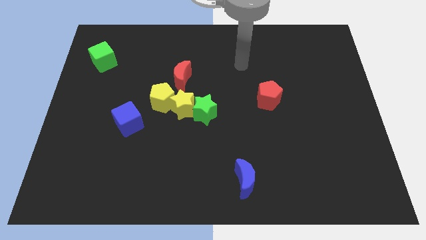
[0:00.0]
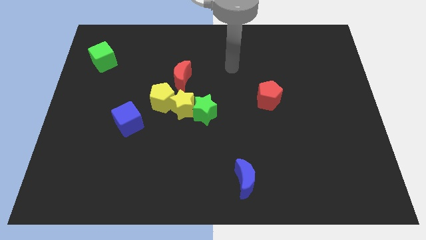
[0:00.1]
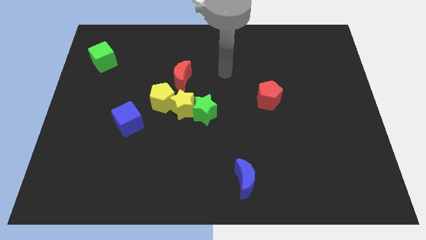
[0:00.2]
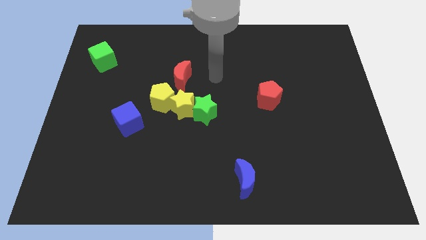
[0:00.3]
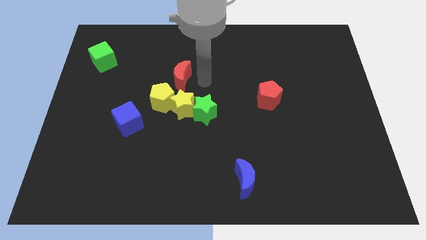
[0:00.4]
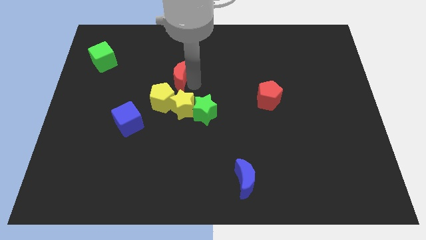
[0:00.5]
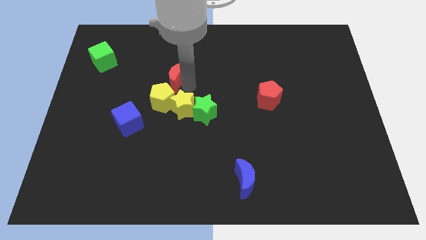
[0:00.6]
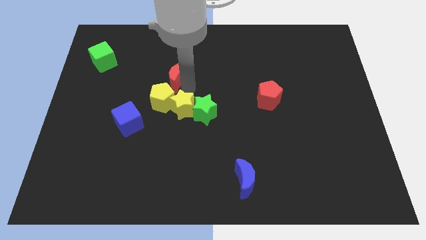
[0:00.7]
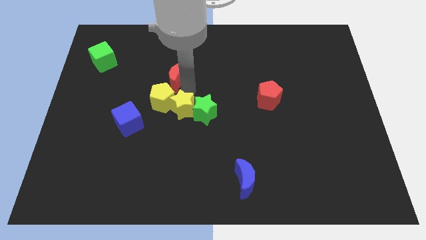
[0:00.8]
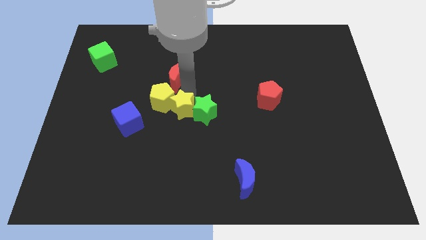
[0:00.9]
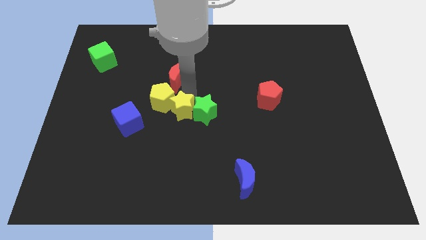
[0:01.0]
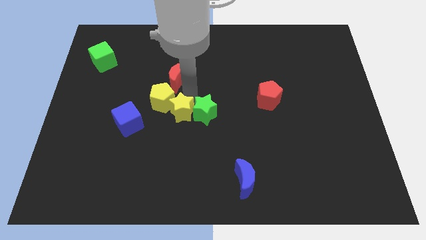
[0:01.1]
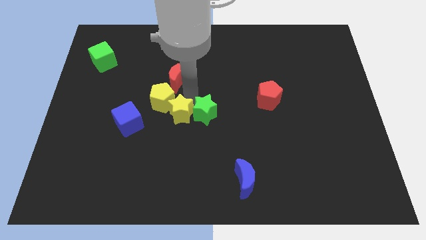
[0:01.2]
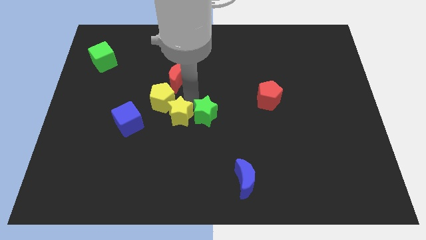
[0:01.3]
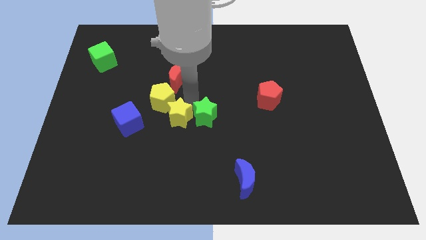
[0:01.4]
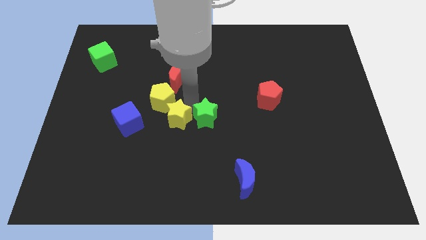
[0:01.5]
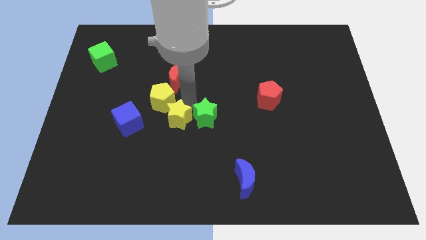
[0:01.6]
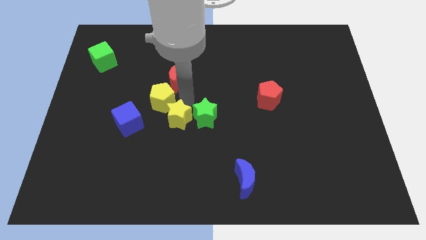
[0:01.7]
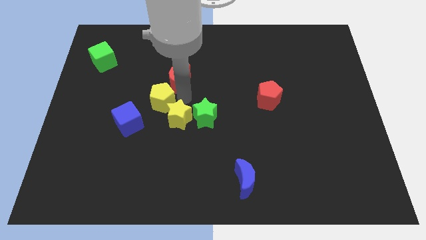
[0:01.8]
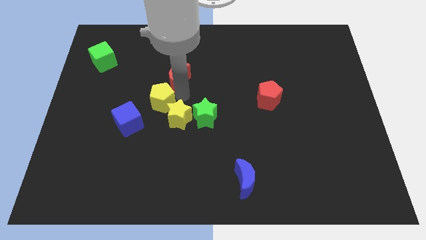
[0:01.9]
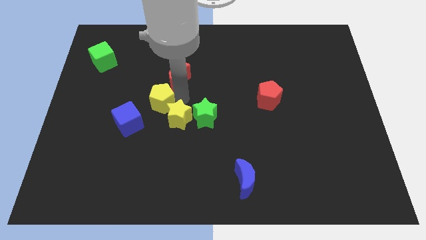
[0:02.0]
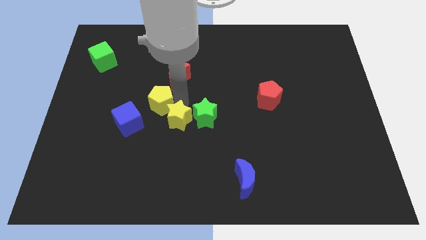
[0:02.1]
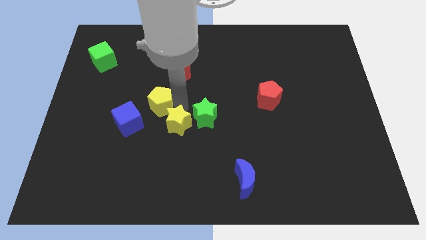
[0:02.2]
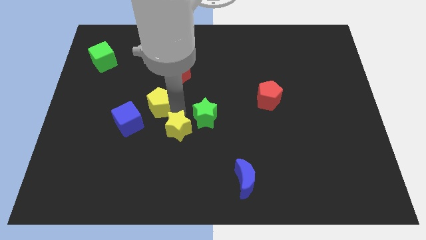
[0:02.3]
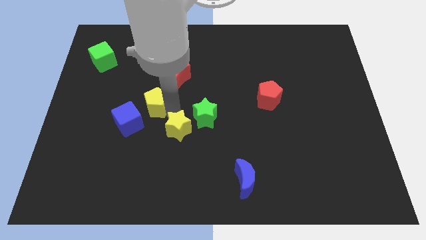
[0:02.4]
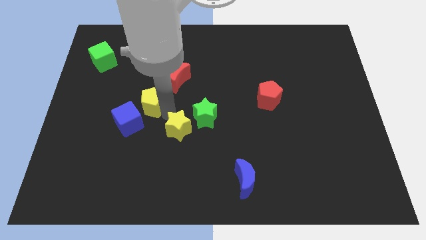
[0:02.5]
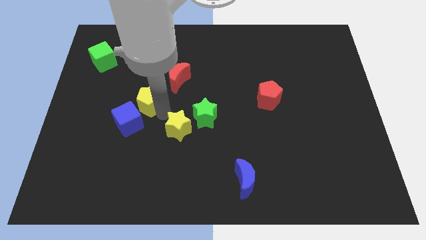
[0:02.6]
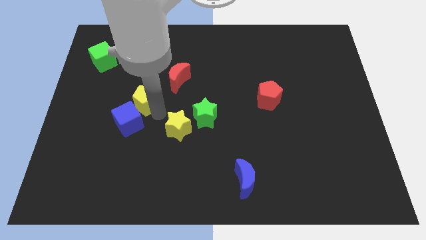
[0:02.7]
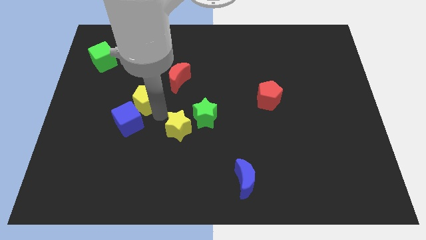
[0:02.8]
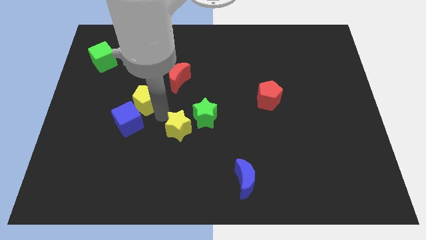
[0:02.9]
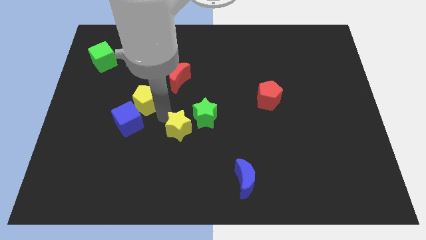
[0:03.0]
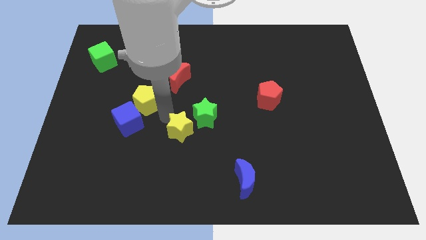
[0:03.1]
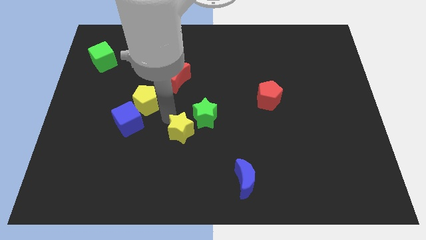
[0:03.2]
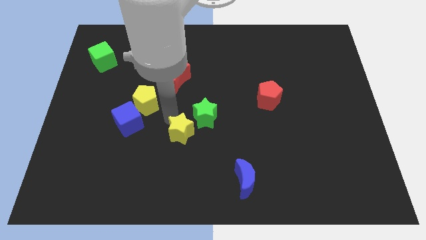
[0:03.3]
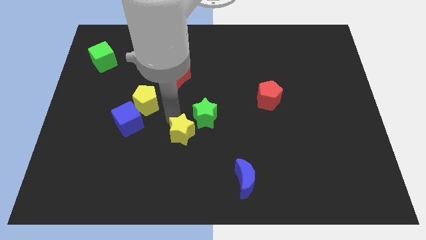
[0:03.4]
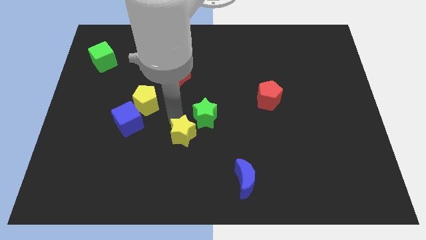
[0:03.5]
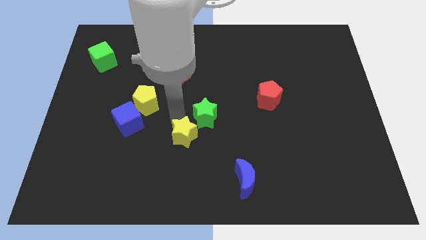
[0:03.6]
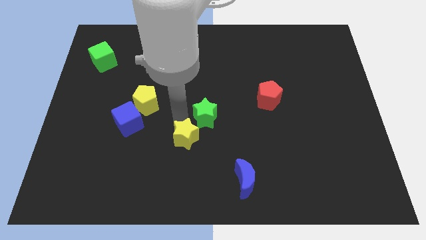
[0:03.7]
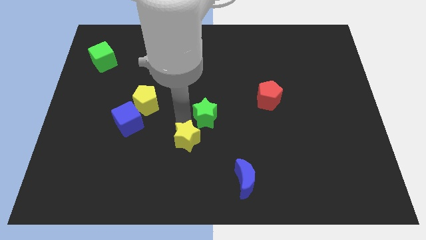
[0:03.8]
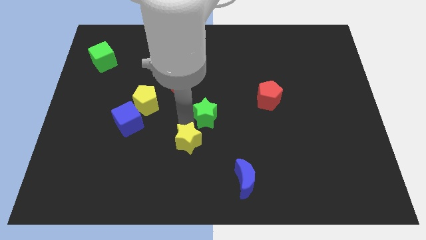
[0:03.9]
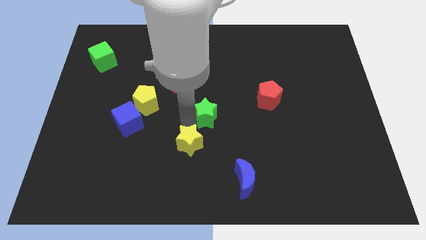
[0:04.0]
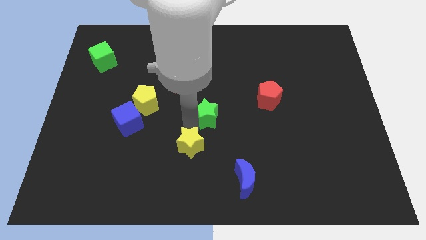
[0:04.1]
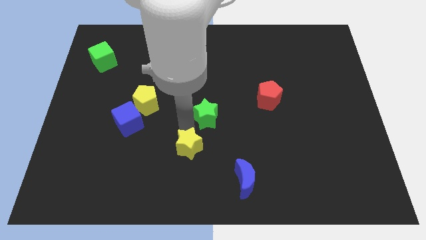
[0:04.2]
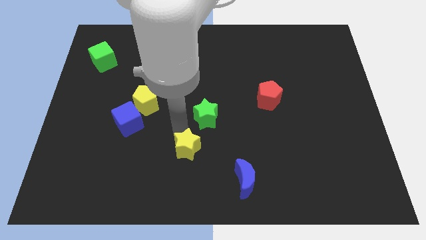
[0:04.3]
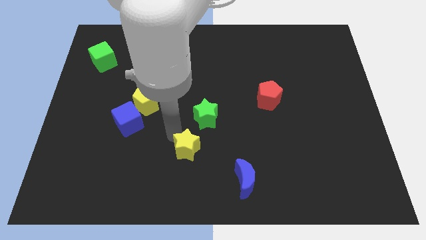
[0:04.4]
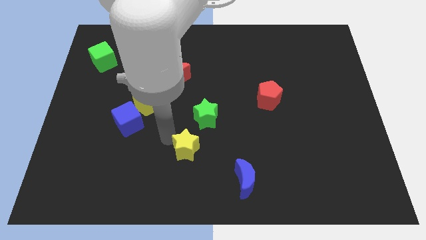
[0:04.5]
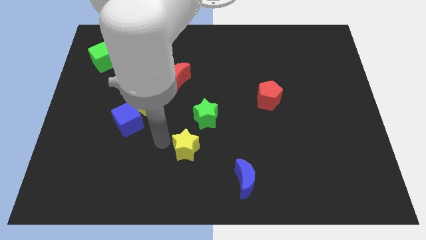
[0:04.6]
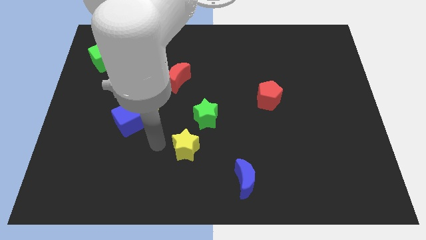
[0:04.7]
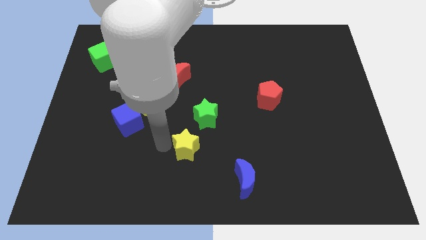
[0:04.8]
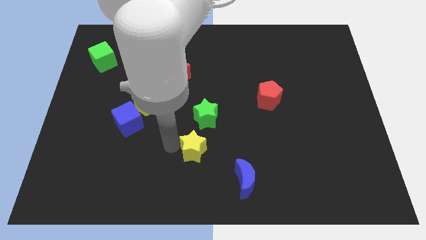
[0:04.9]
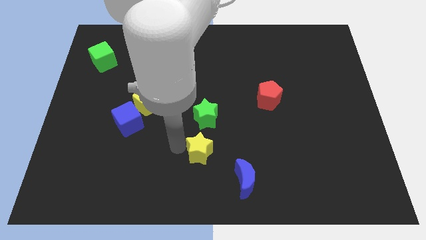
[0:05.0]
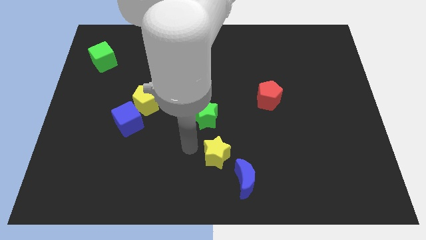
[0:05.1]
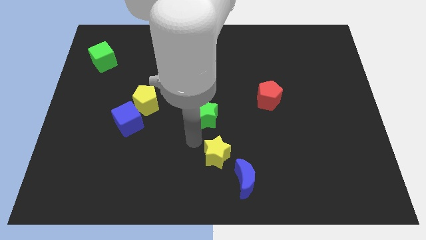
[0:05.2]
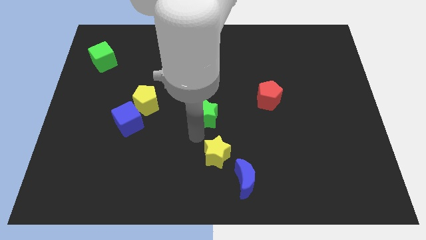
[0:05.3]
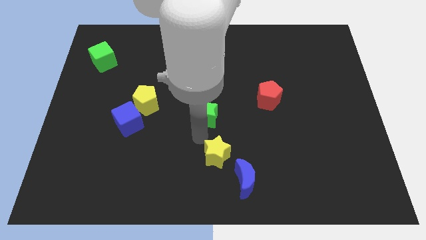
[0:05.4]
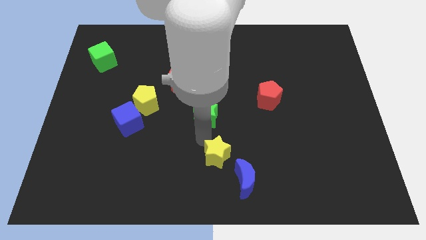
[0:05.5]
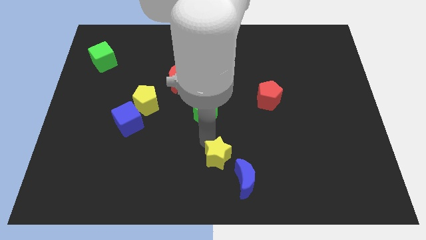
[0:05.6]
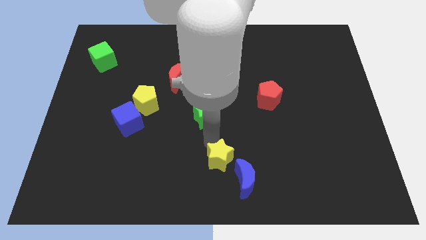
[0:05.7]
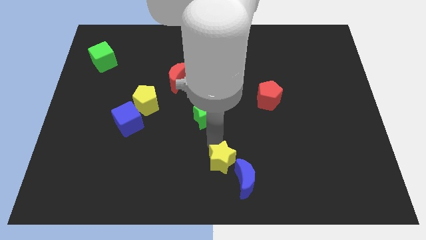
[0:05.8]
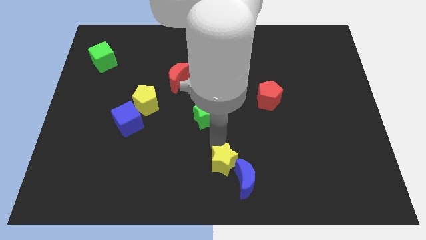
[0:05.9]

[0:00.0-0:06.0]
slide the yellow star towards the blue moon

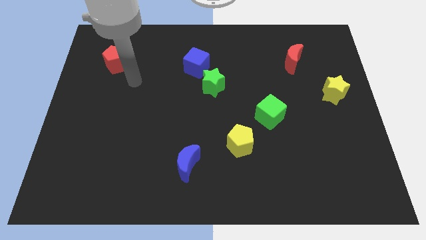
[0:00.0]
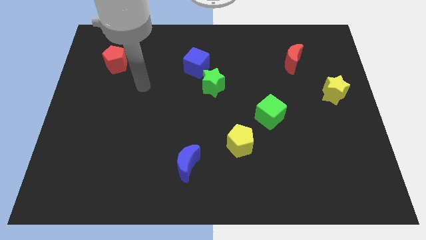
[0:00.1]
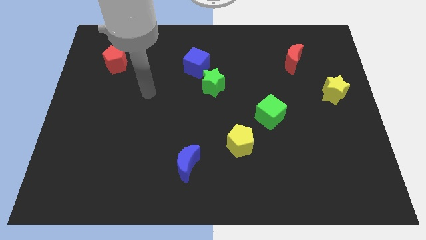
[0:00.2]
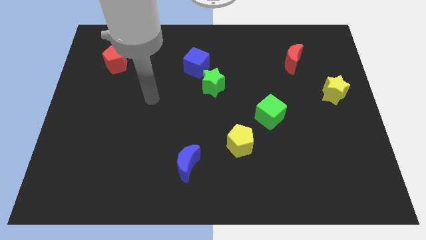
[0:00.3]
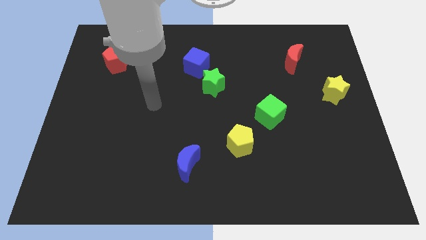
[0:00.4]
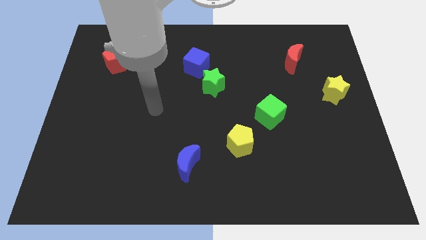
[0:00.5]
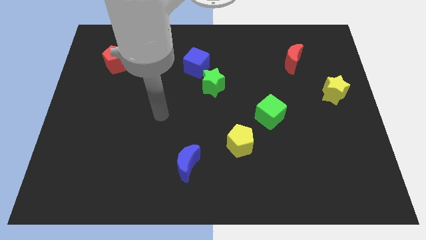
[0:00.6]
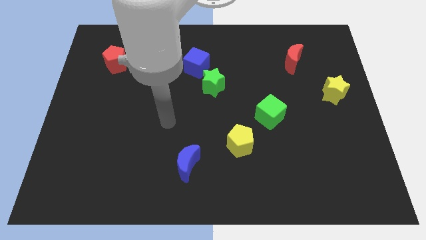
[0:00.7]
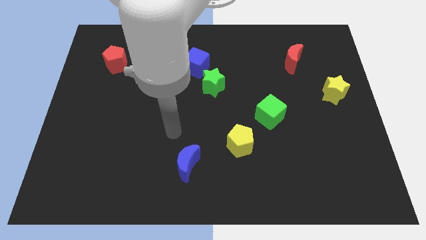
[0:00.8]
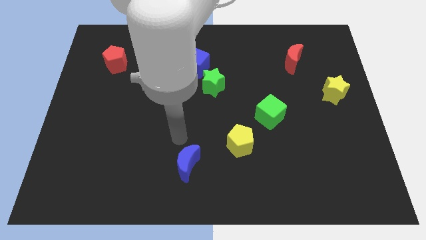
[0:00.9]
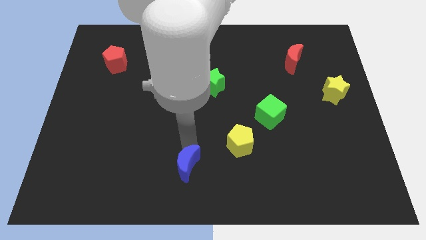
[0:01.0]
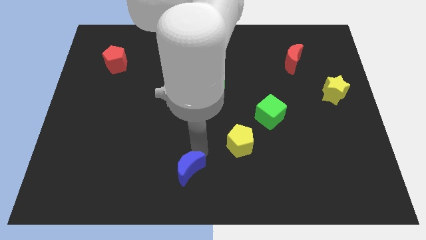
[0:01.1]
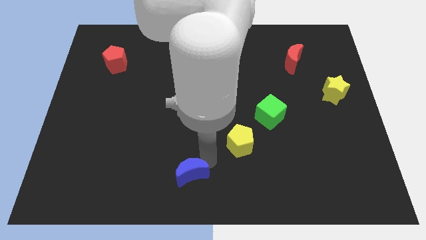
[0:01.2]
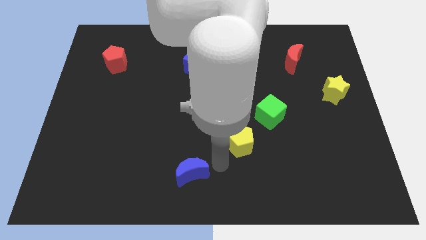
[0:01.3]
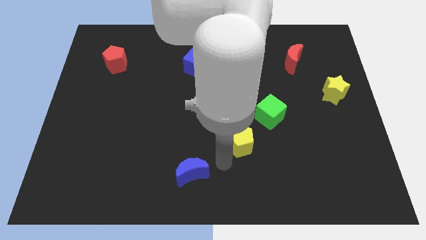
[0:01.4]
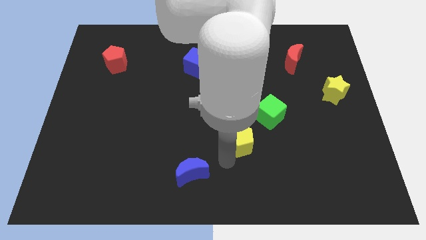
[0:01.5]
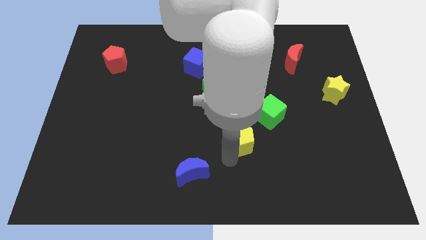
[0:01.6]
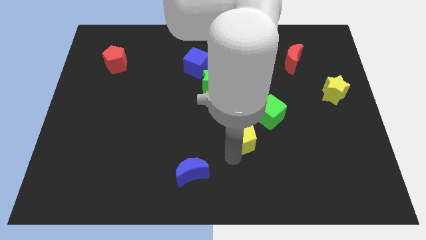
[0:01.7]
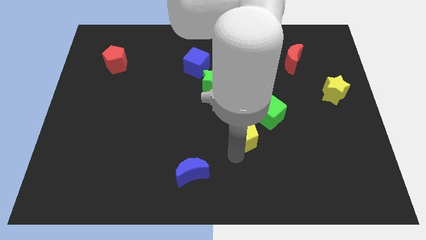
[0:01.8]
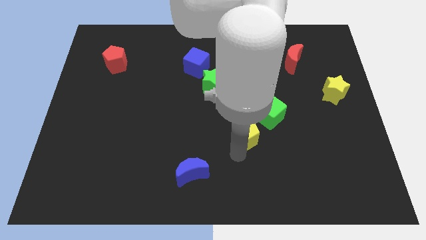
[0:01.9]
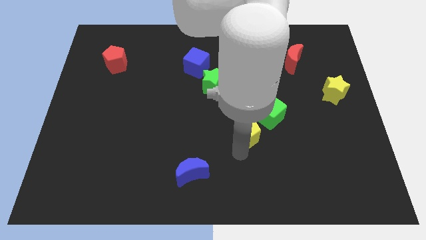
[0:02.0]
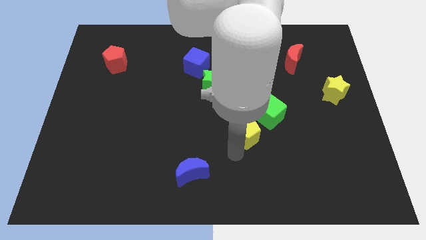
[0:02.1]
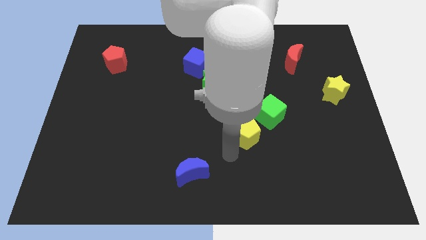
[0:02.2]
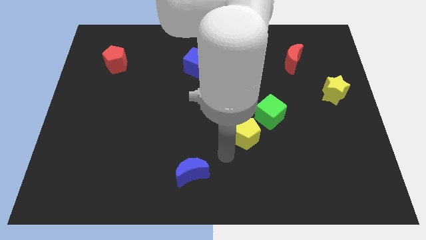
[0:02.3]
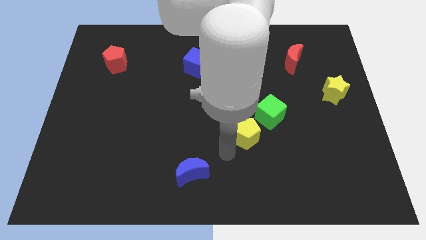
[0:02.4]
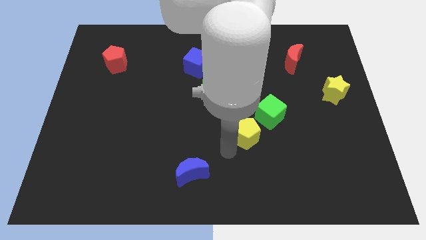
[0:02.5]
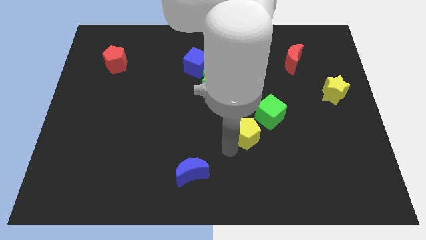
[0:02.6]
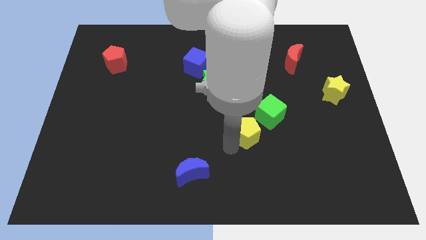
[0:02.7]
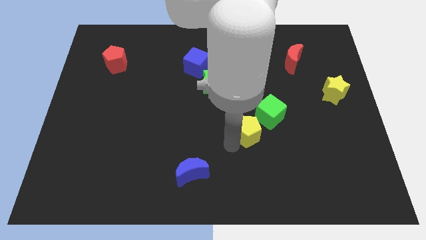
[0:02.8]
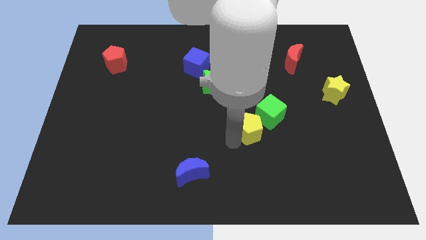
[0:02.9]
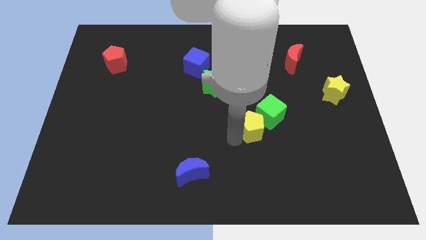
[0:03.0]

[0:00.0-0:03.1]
put the yellow pentagon close to the green cube
